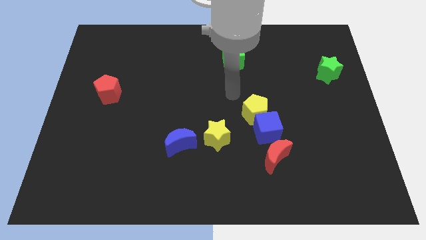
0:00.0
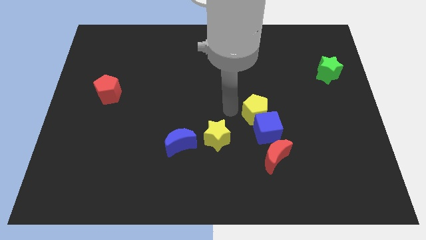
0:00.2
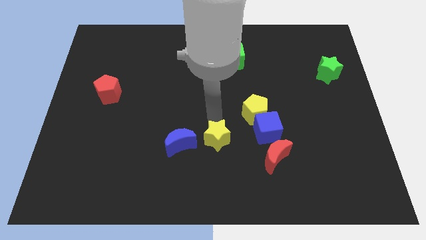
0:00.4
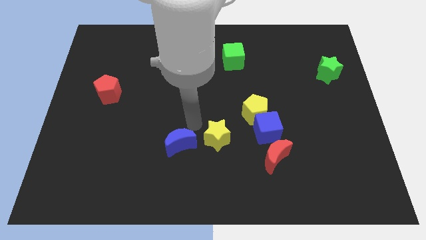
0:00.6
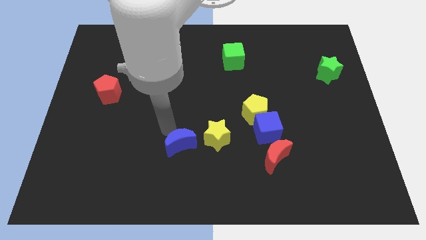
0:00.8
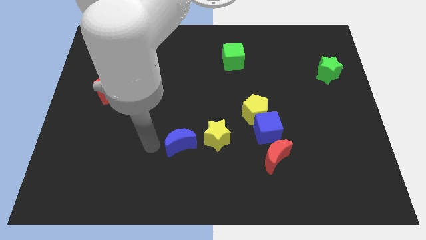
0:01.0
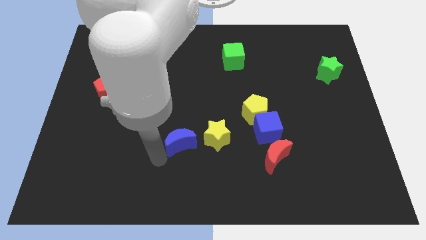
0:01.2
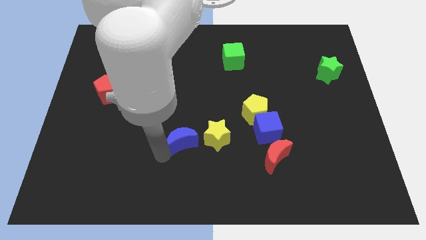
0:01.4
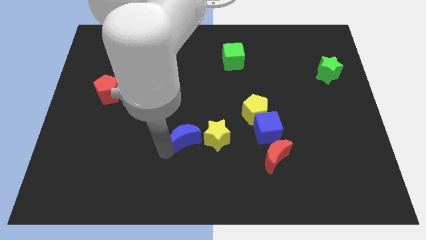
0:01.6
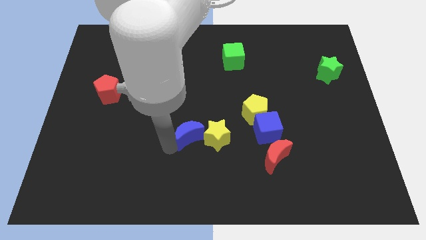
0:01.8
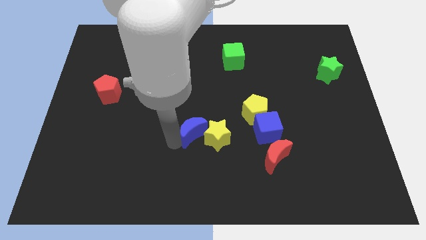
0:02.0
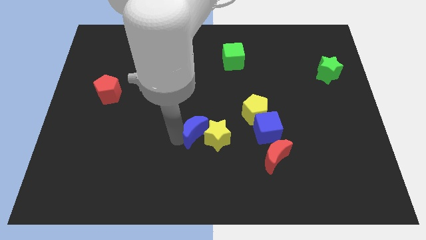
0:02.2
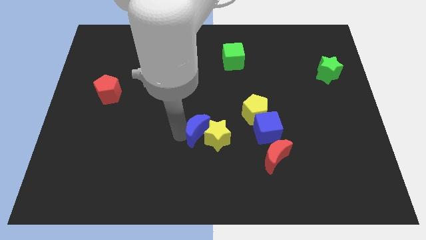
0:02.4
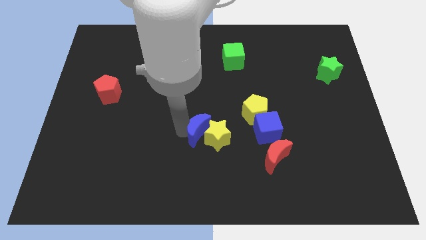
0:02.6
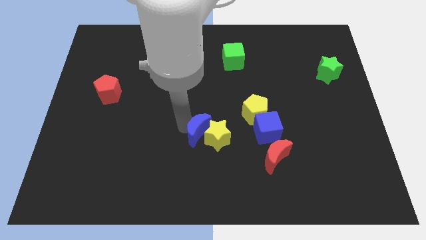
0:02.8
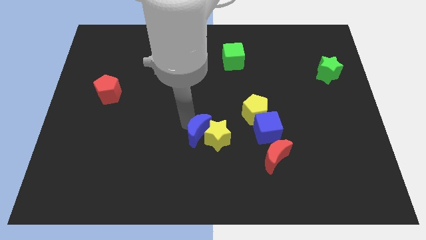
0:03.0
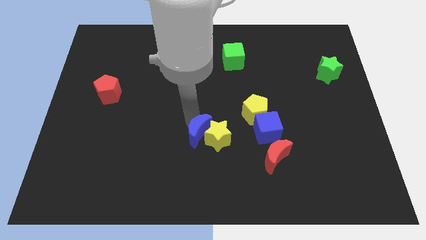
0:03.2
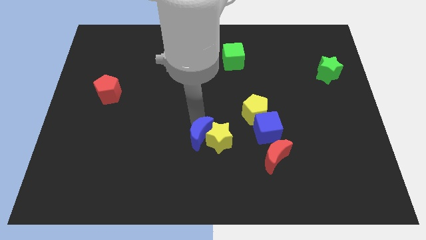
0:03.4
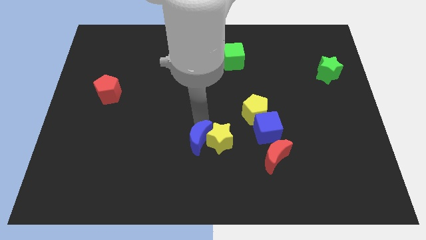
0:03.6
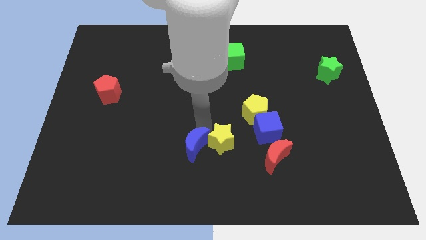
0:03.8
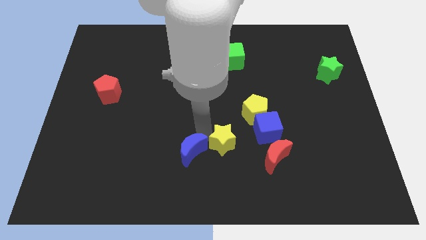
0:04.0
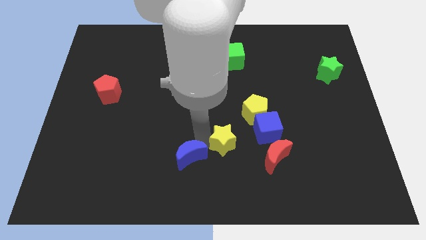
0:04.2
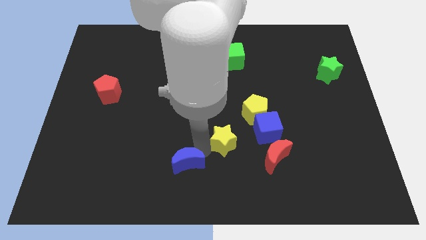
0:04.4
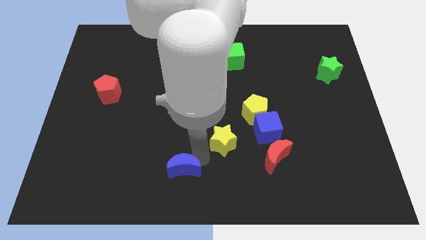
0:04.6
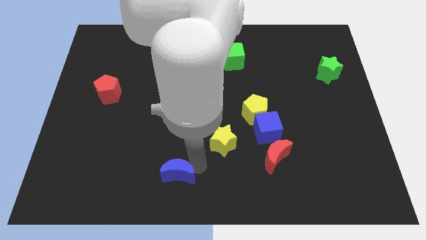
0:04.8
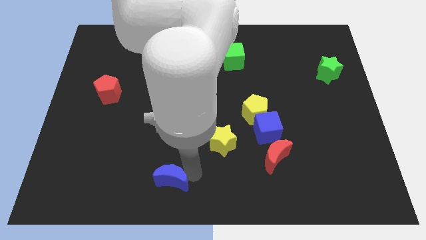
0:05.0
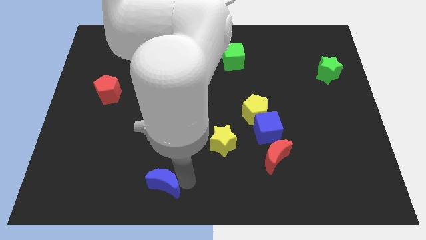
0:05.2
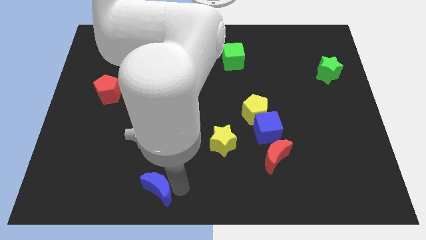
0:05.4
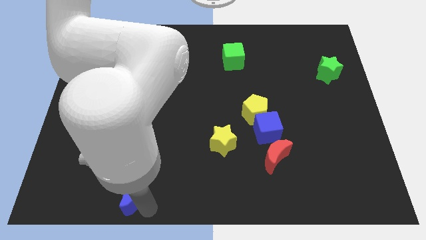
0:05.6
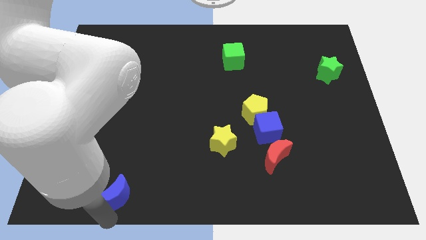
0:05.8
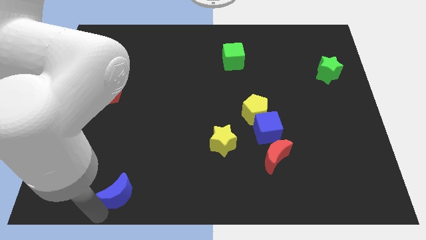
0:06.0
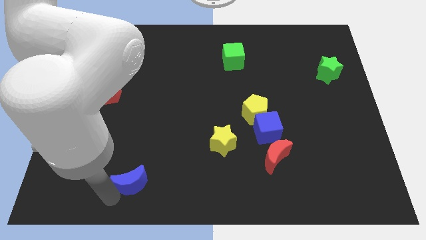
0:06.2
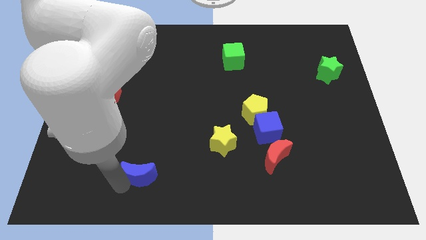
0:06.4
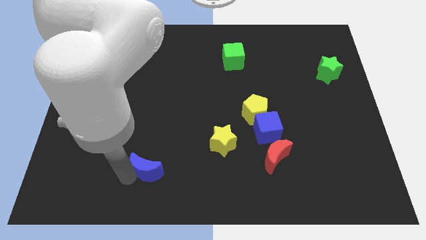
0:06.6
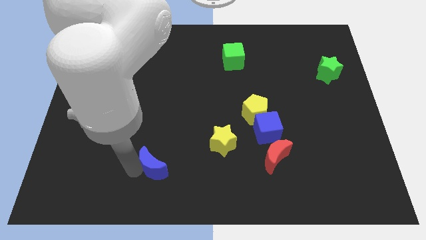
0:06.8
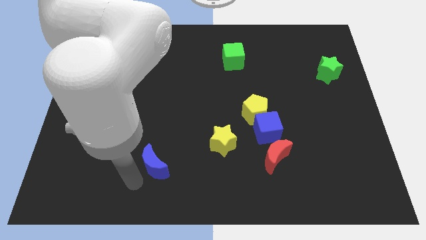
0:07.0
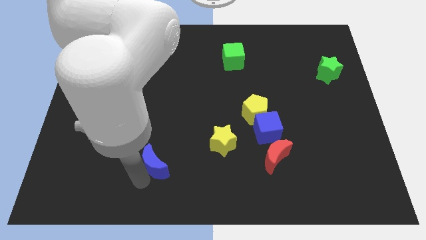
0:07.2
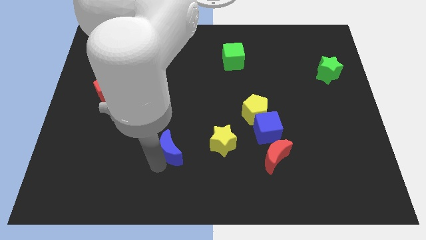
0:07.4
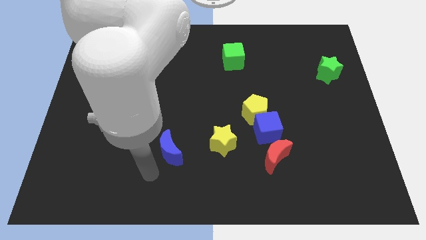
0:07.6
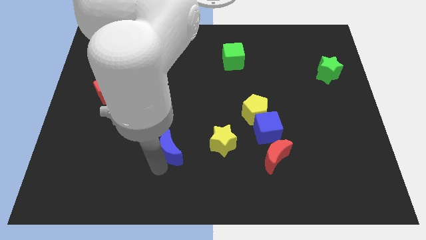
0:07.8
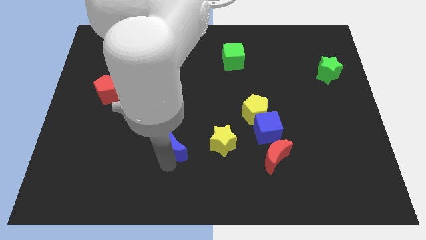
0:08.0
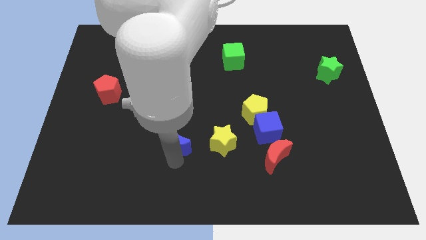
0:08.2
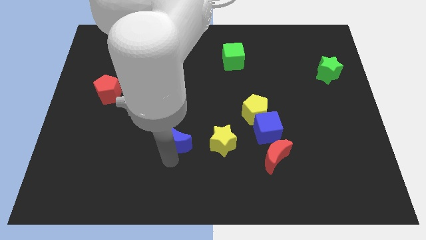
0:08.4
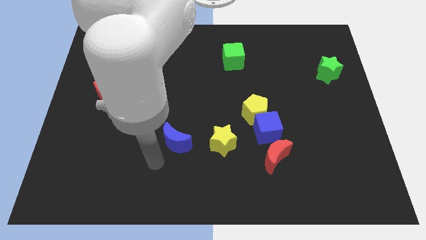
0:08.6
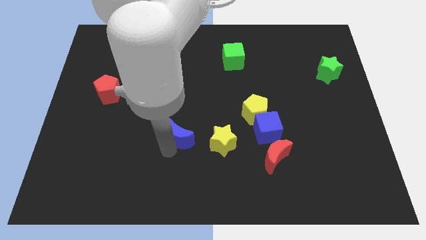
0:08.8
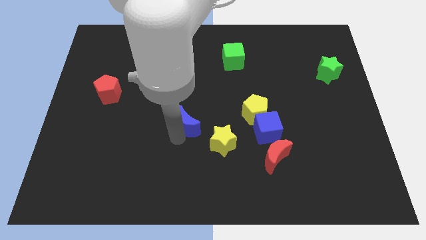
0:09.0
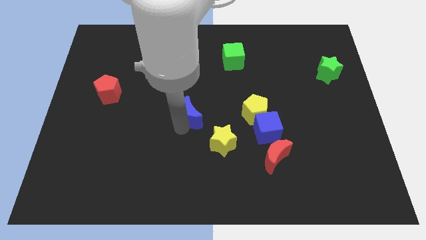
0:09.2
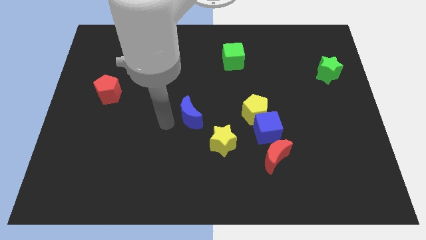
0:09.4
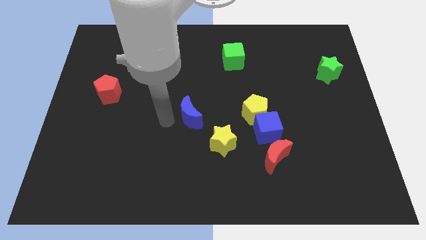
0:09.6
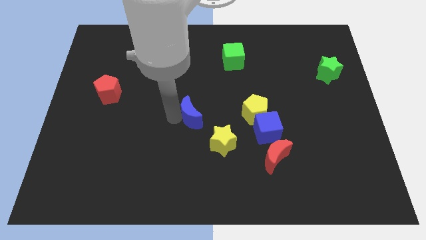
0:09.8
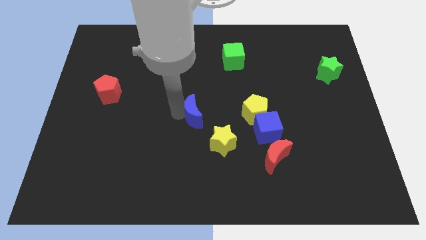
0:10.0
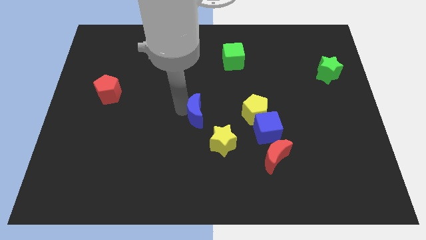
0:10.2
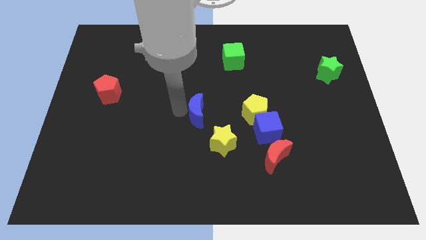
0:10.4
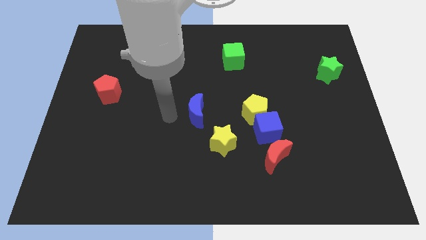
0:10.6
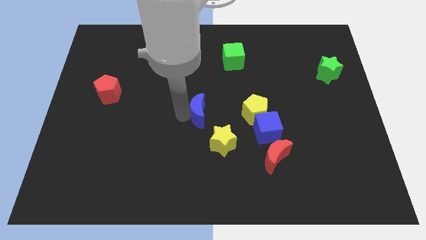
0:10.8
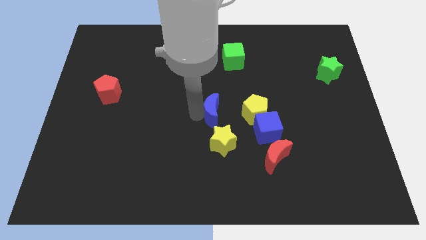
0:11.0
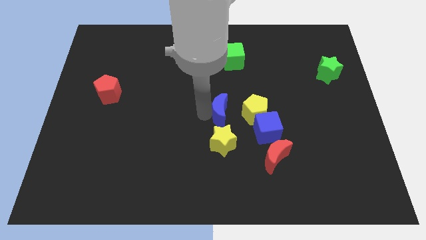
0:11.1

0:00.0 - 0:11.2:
slide the blue moon to the top left of the blue cube

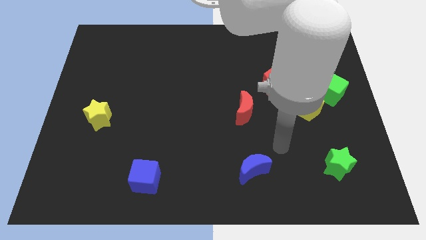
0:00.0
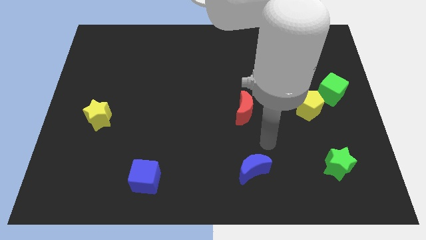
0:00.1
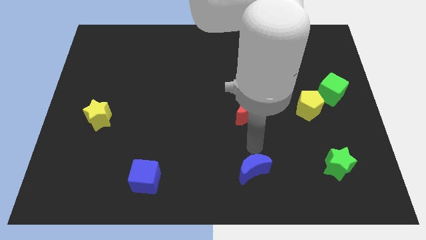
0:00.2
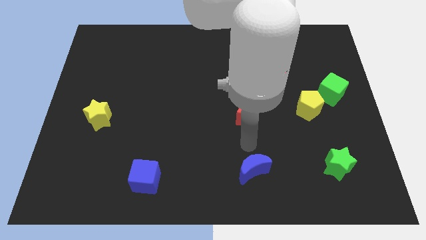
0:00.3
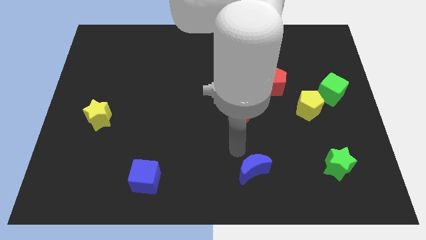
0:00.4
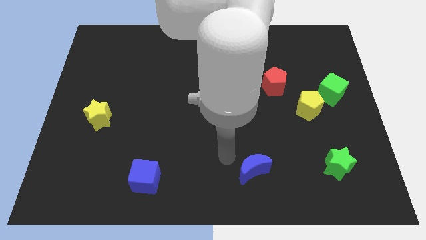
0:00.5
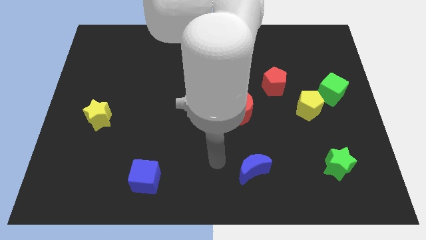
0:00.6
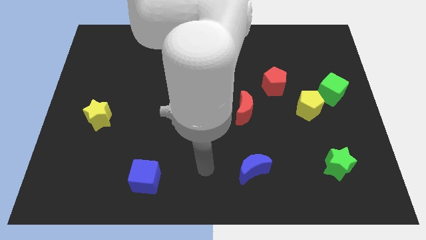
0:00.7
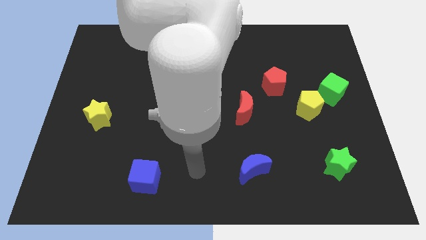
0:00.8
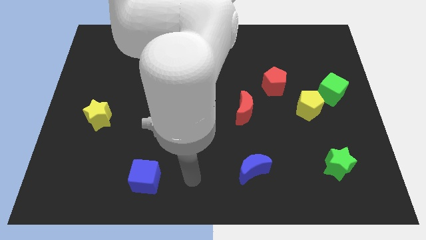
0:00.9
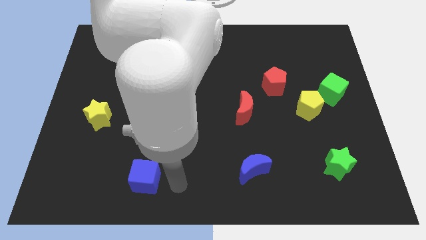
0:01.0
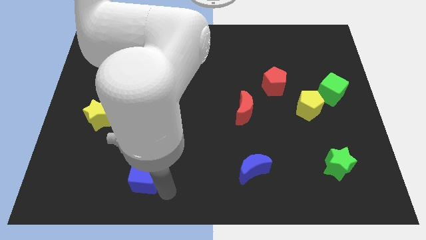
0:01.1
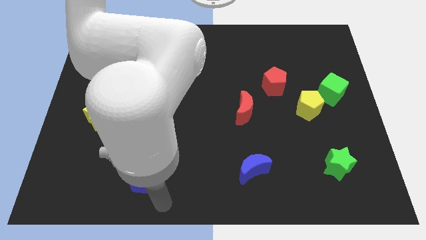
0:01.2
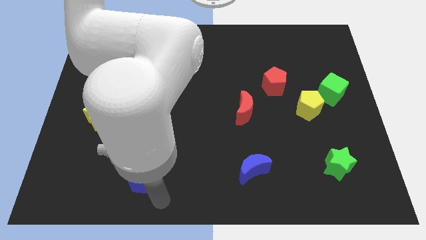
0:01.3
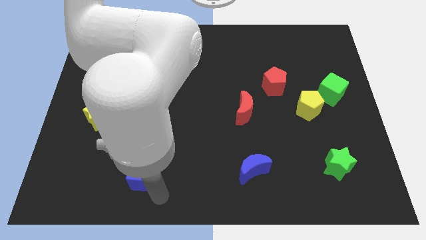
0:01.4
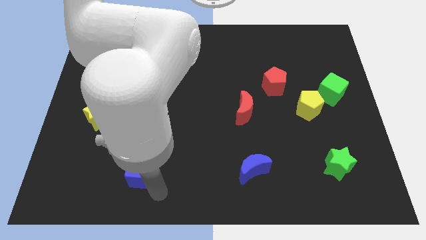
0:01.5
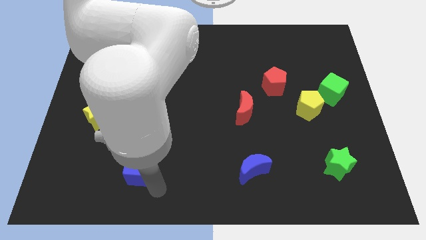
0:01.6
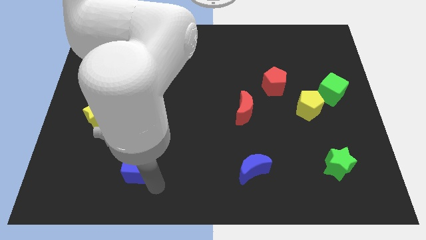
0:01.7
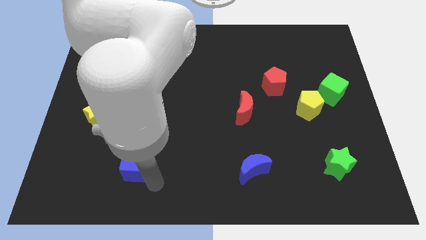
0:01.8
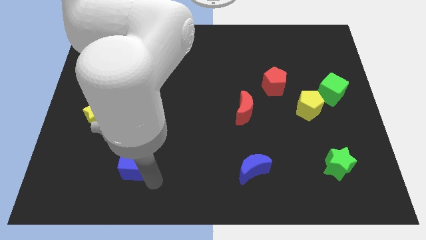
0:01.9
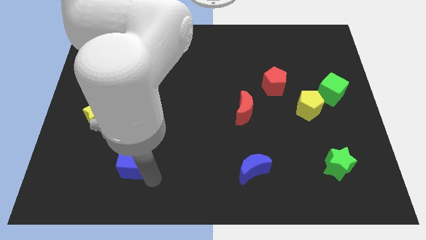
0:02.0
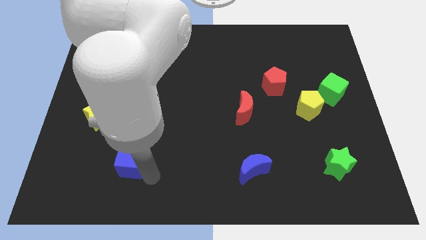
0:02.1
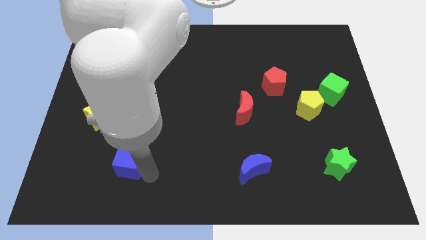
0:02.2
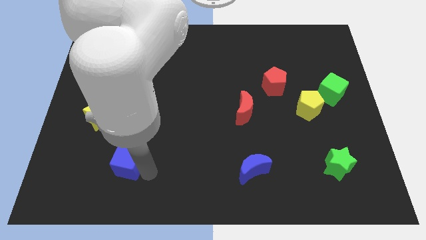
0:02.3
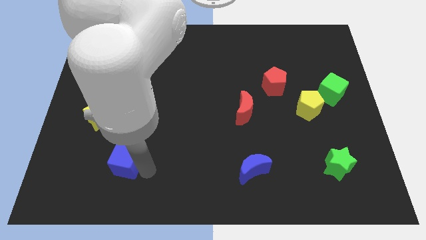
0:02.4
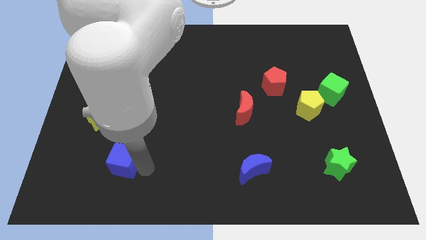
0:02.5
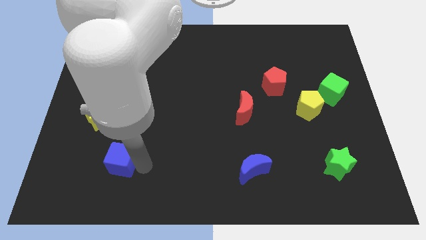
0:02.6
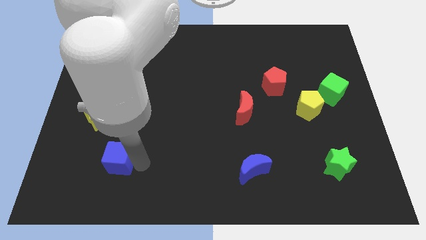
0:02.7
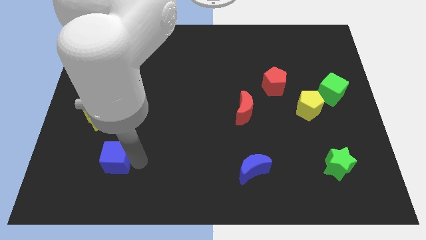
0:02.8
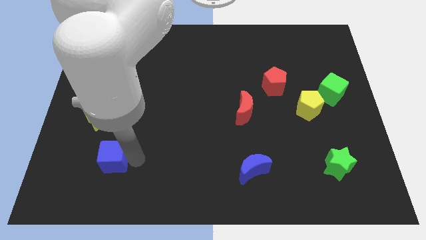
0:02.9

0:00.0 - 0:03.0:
push the blue cube to the bottom right of the yellow star
